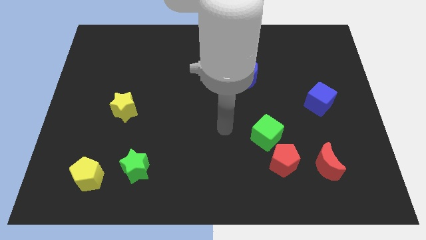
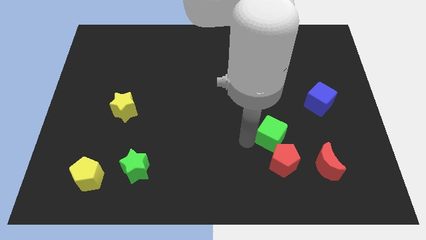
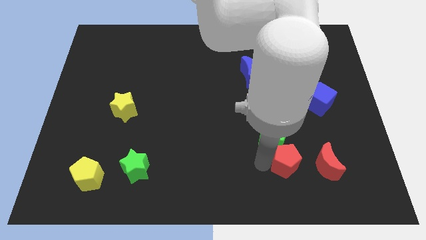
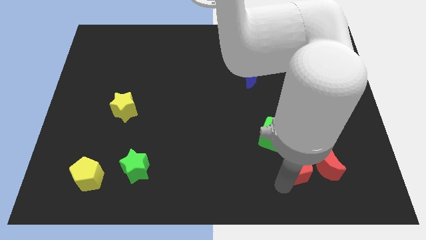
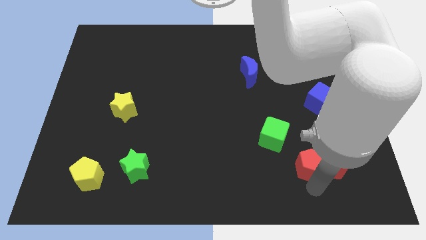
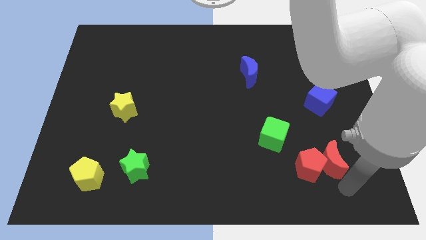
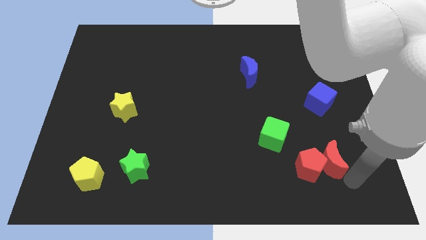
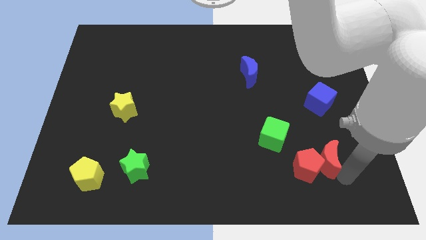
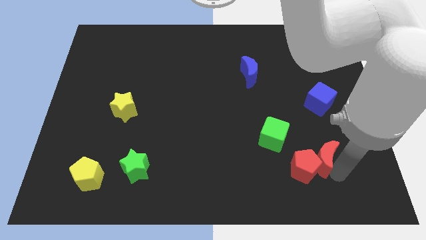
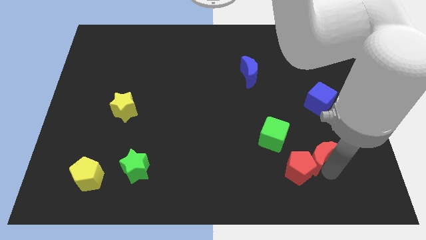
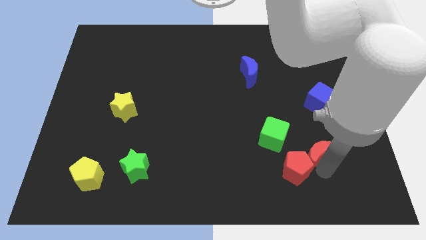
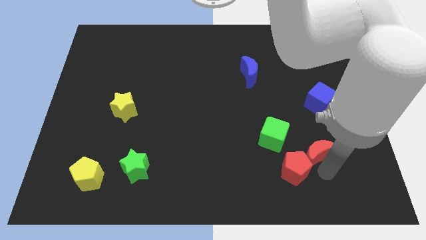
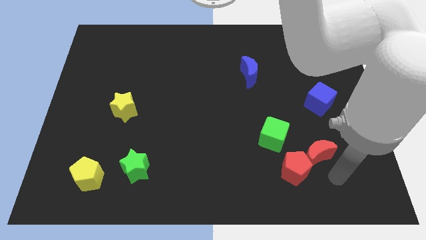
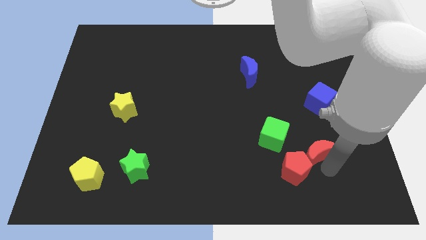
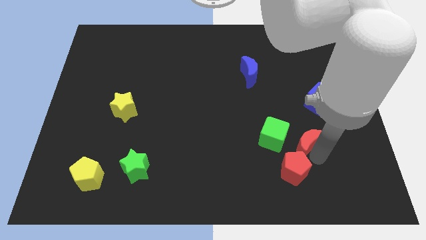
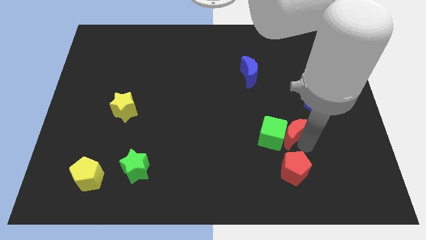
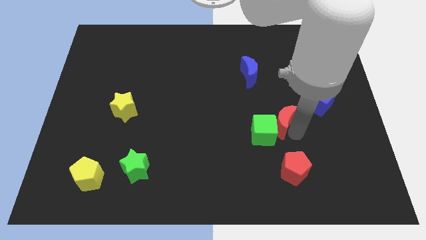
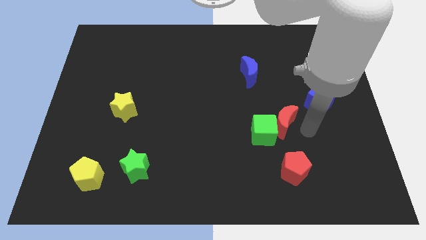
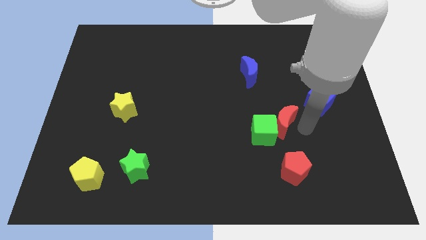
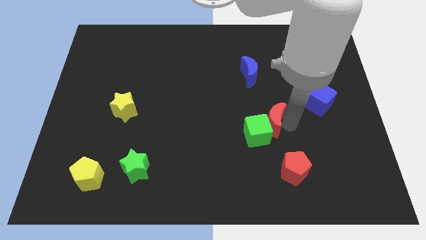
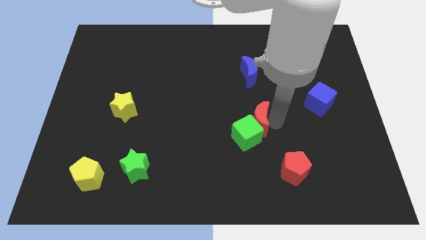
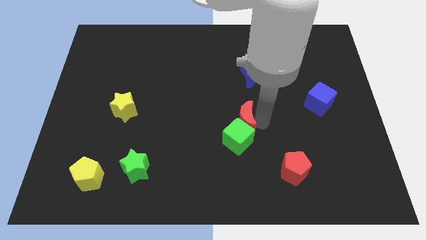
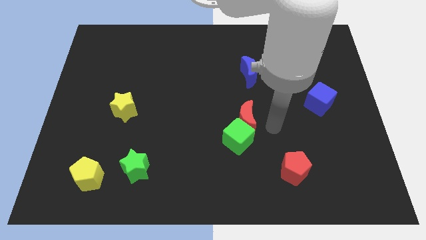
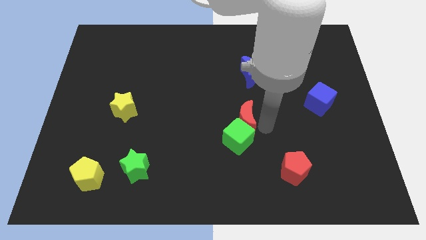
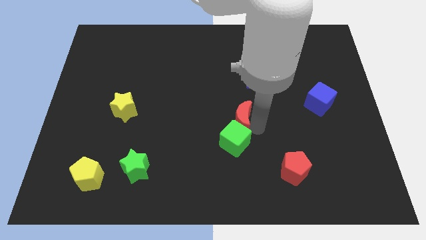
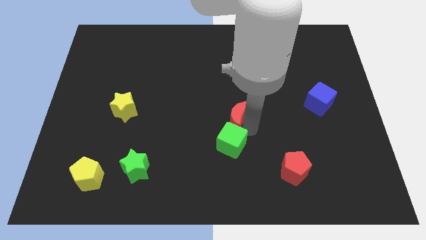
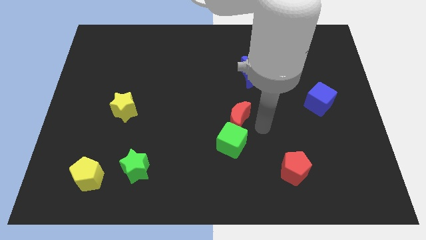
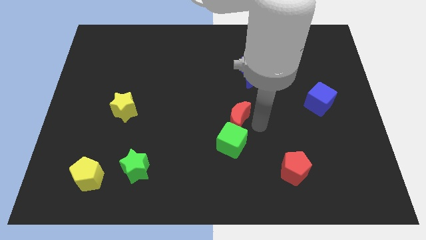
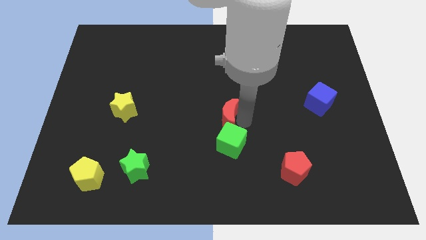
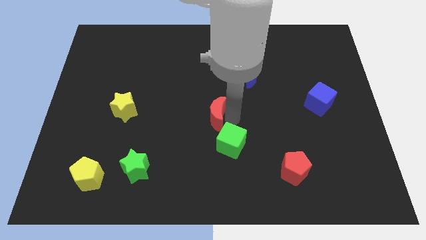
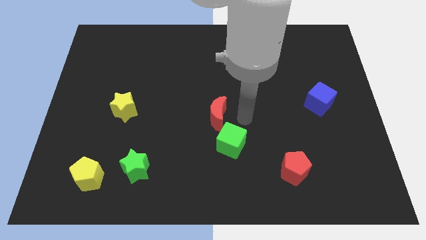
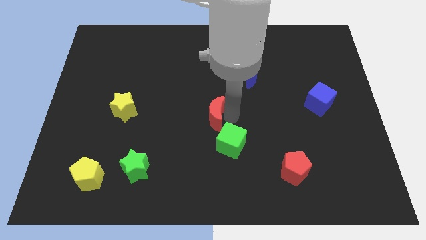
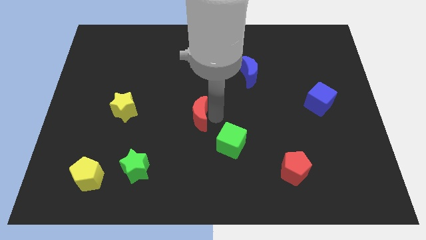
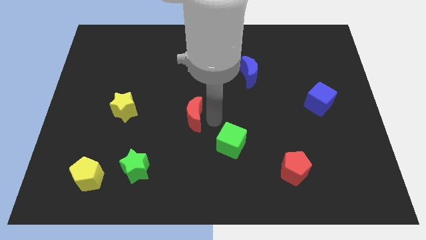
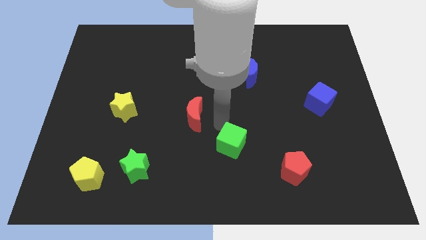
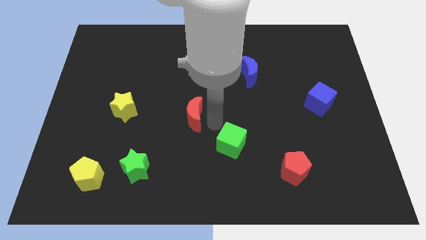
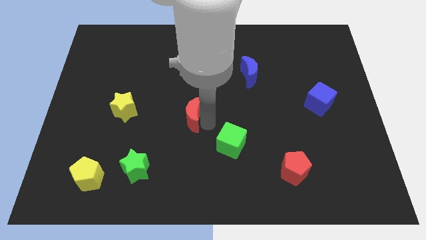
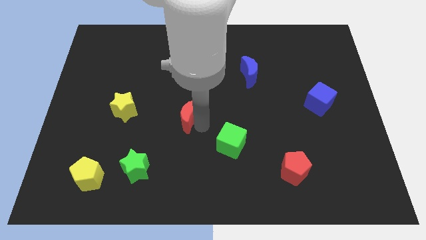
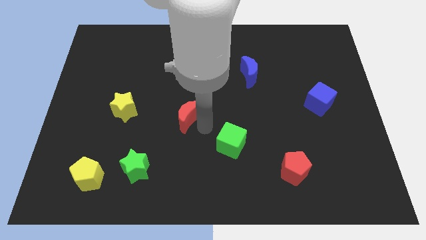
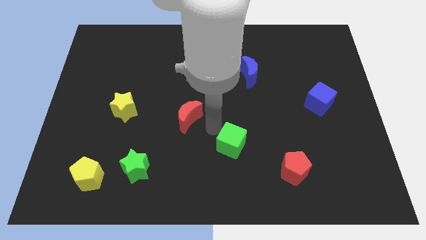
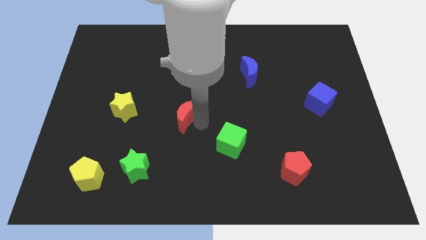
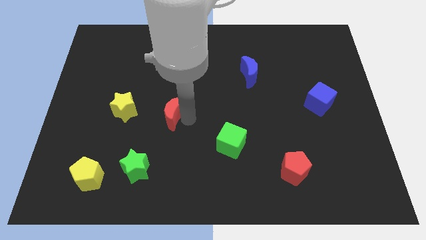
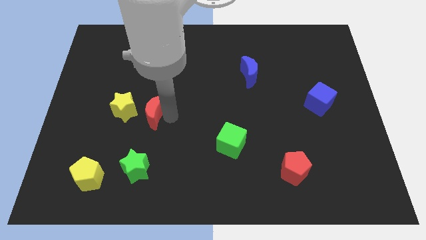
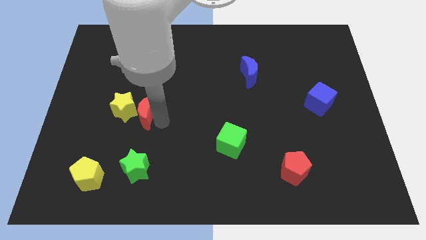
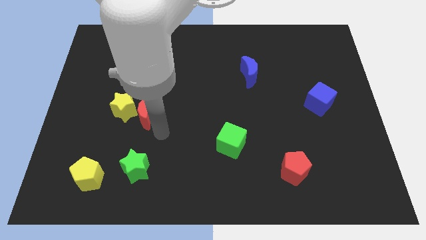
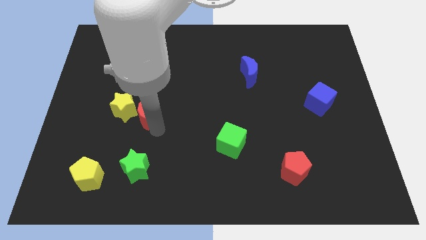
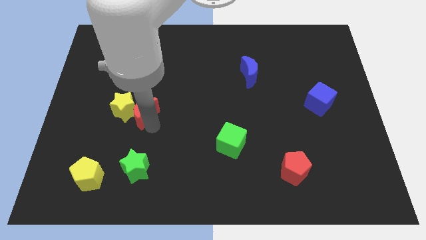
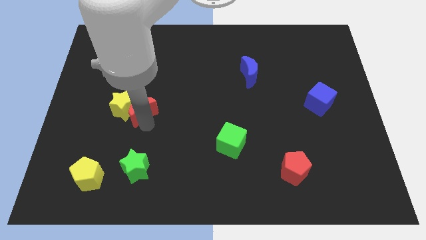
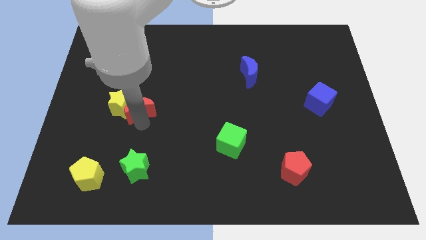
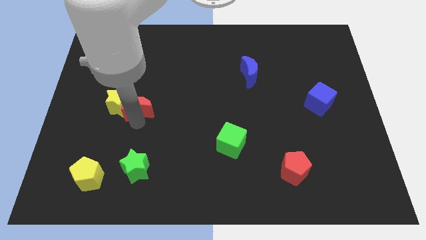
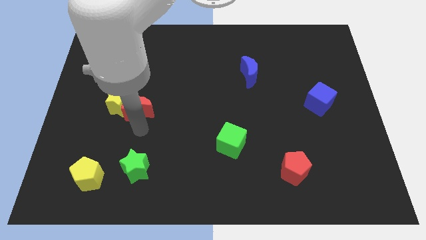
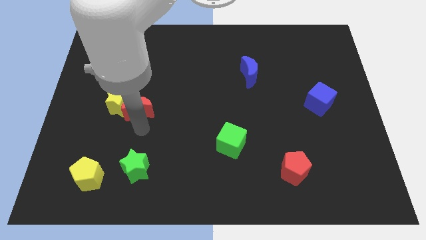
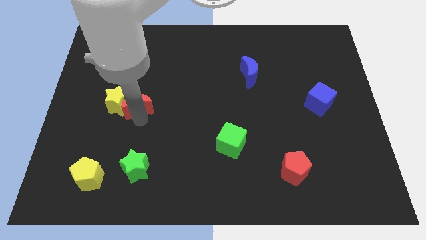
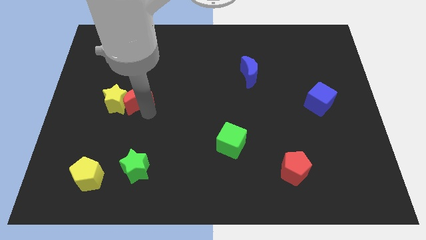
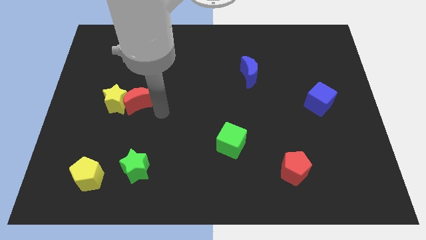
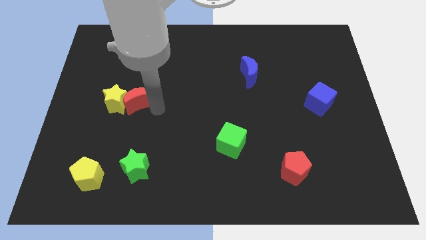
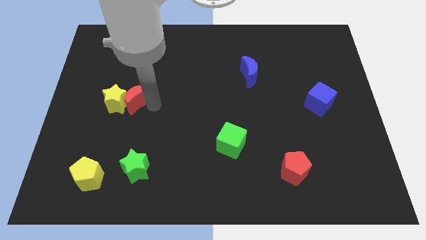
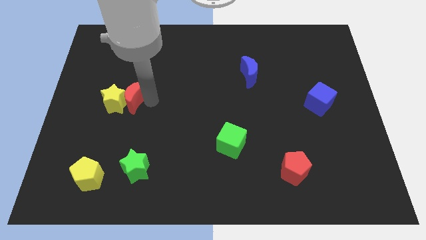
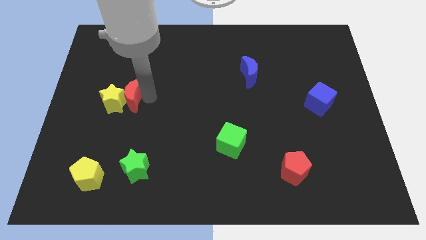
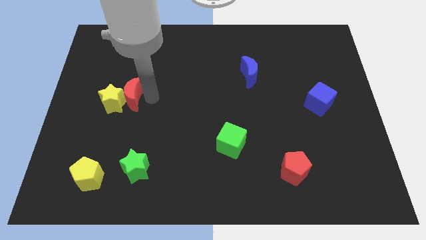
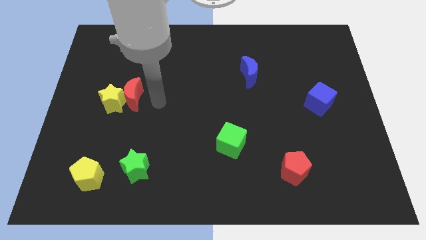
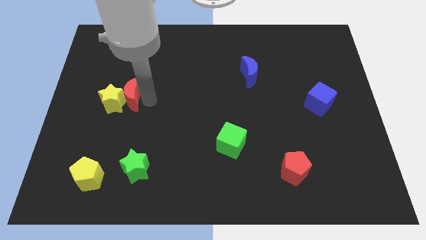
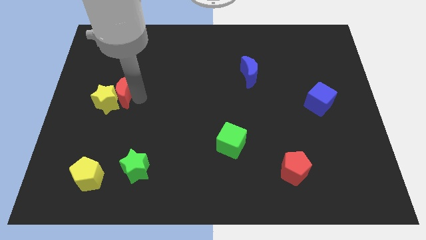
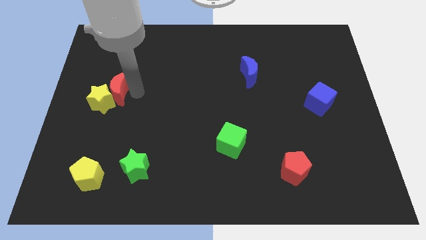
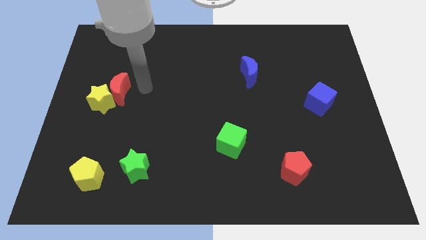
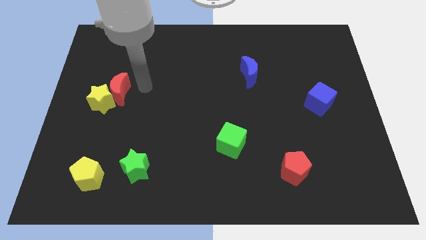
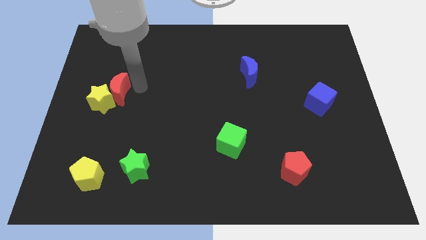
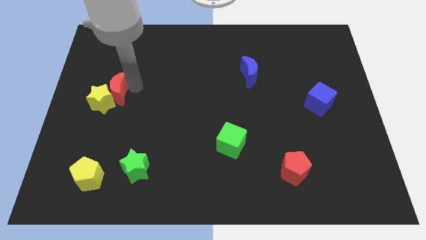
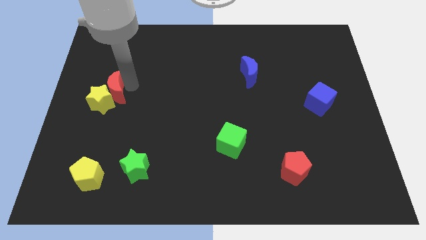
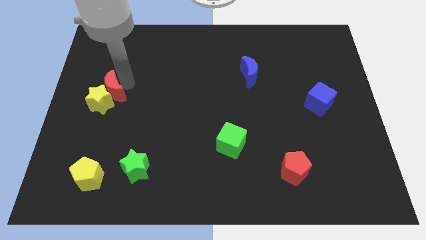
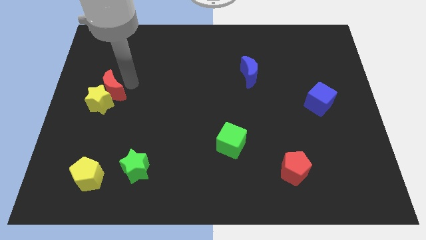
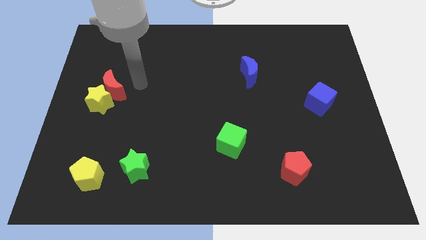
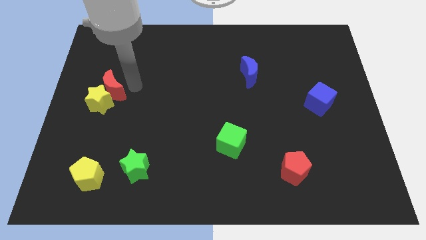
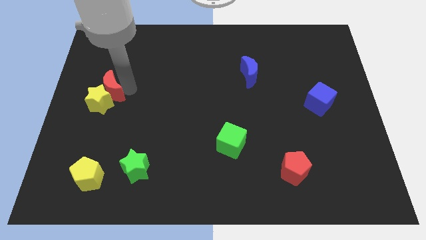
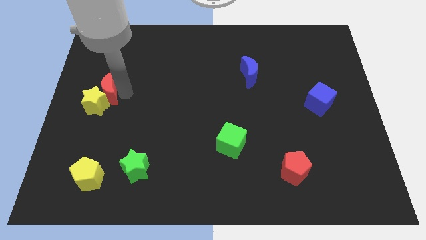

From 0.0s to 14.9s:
move the red moon to the left side of the board
